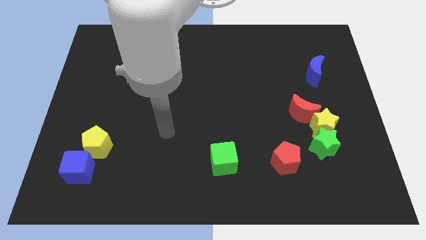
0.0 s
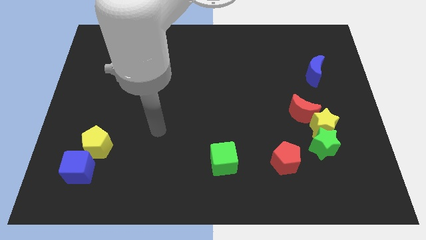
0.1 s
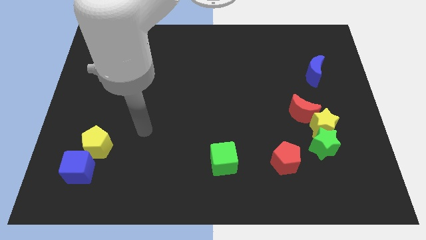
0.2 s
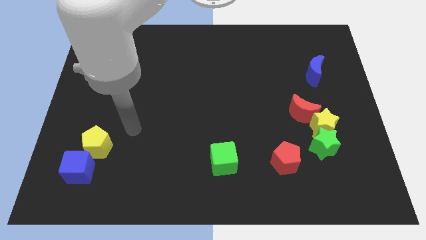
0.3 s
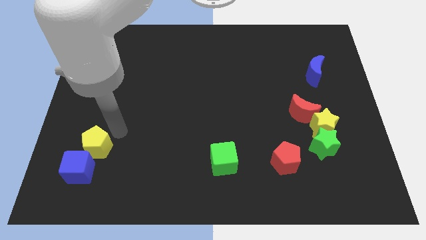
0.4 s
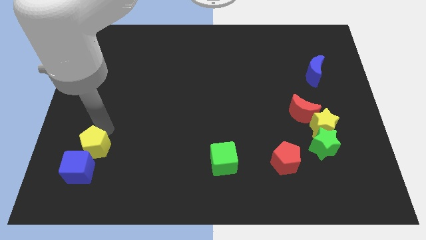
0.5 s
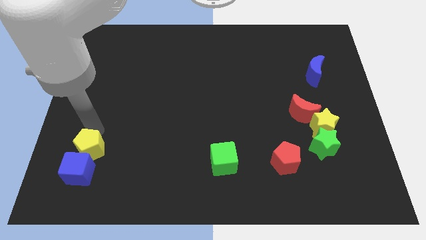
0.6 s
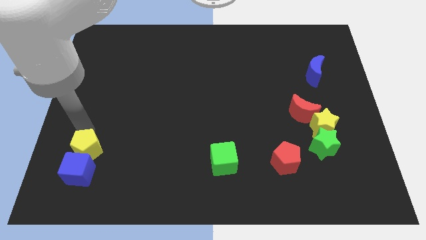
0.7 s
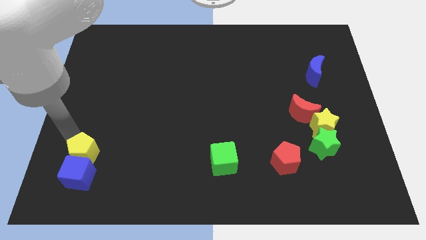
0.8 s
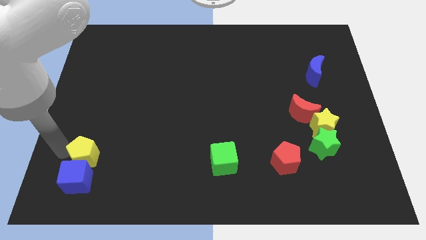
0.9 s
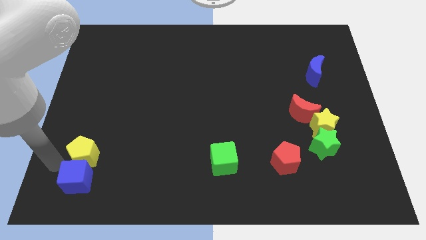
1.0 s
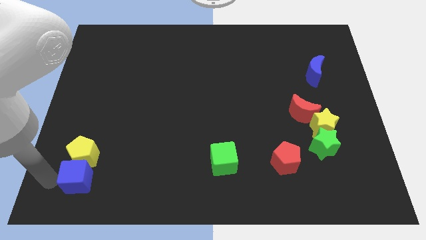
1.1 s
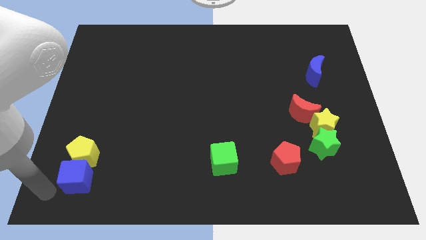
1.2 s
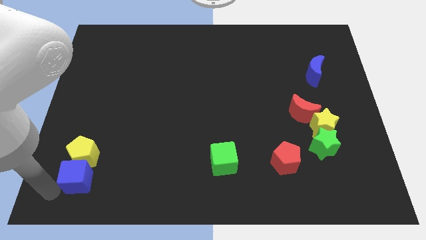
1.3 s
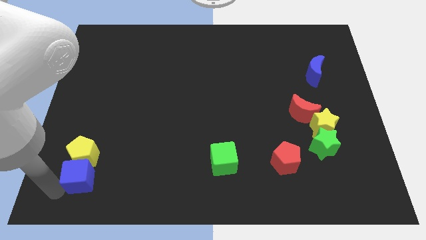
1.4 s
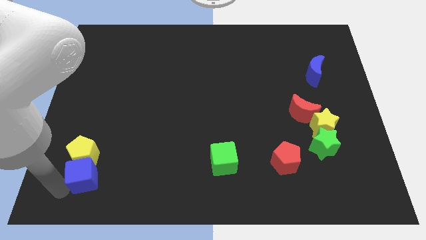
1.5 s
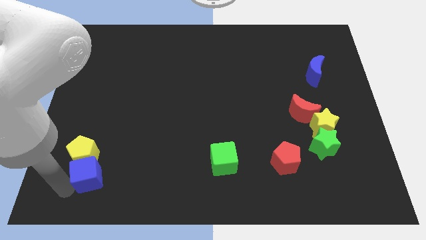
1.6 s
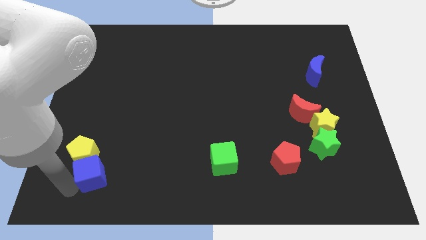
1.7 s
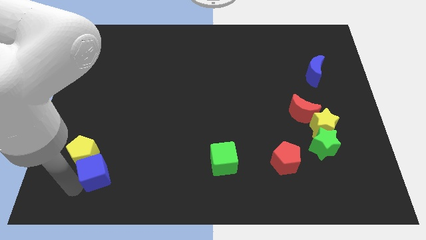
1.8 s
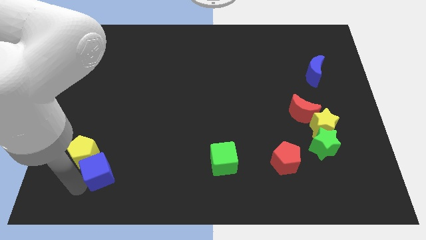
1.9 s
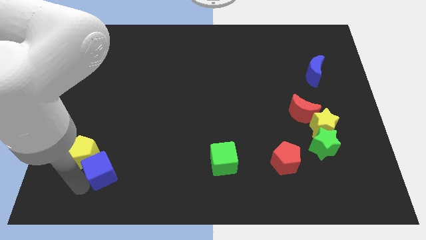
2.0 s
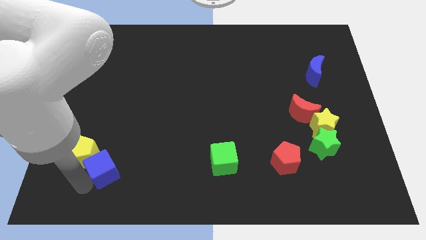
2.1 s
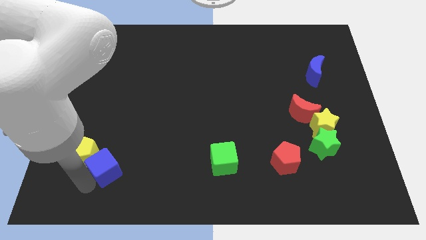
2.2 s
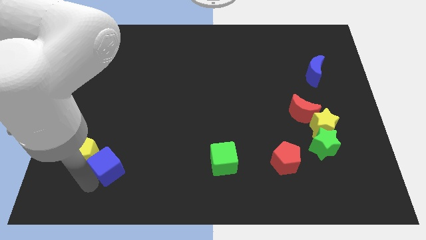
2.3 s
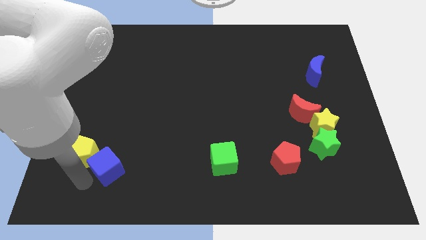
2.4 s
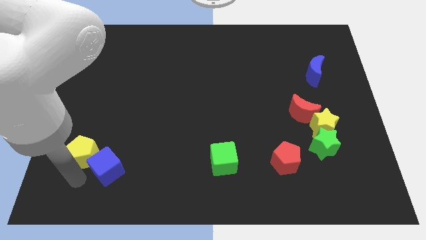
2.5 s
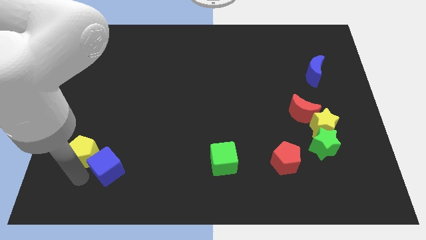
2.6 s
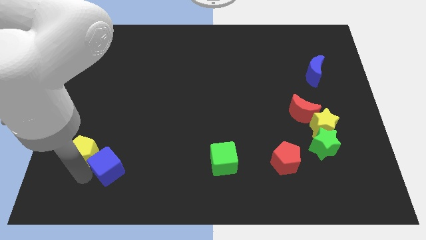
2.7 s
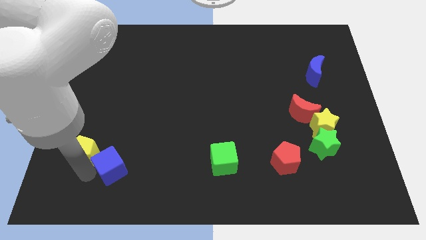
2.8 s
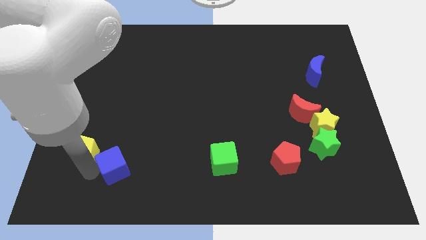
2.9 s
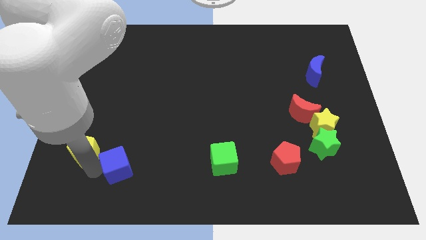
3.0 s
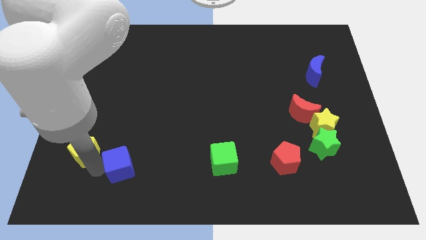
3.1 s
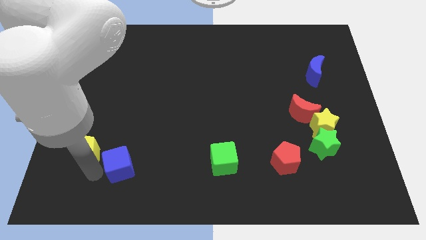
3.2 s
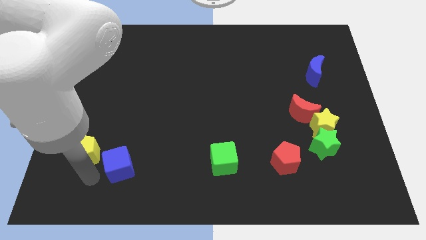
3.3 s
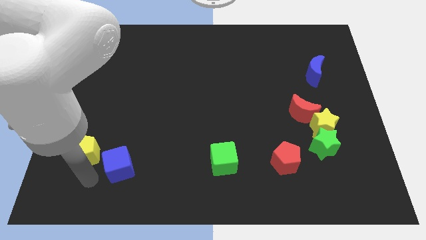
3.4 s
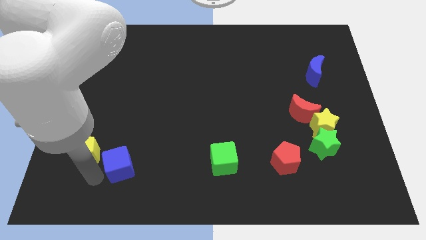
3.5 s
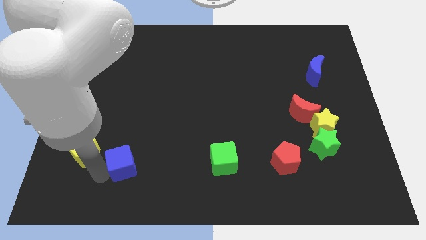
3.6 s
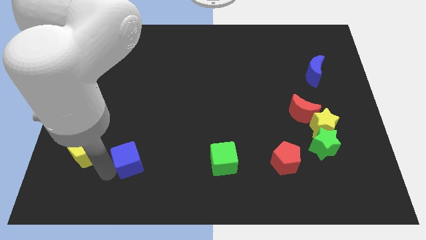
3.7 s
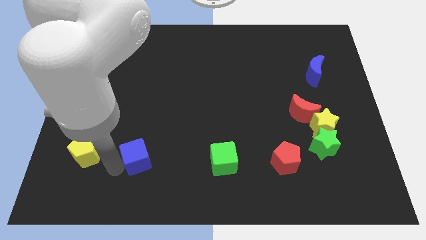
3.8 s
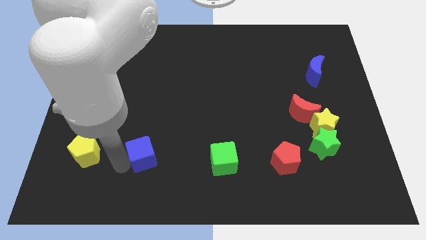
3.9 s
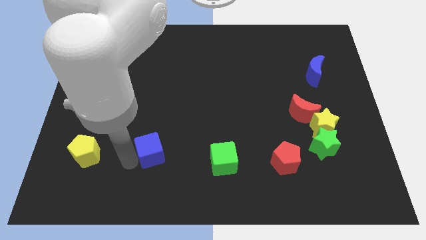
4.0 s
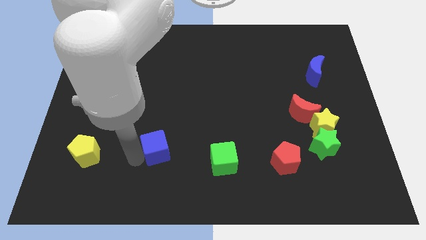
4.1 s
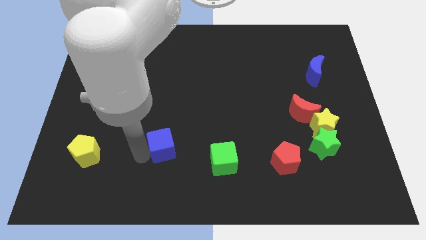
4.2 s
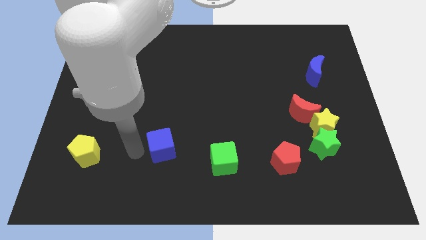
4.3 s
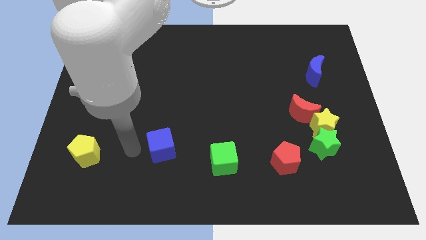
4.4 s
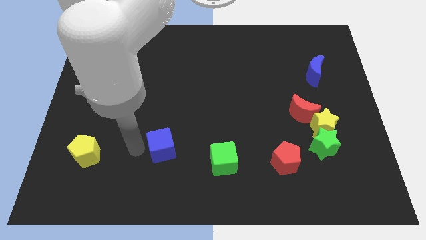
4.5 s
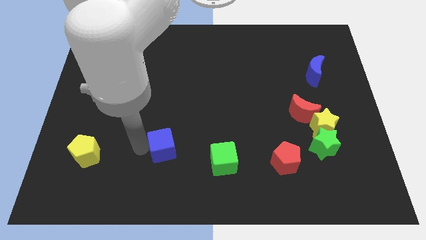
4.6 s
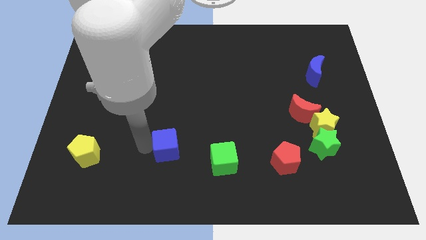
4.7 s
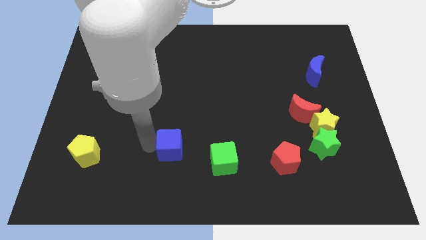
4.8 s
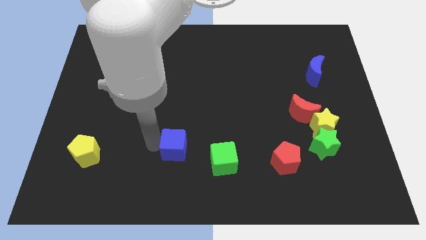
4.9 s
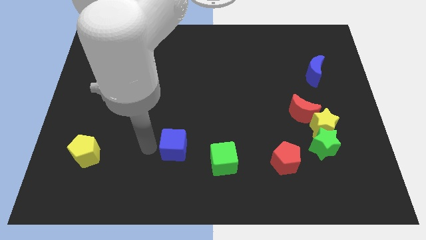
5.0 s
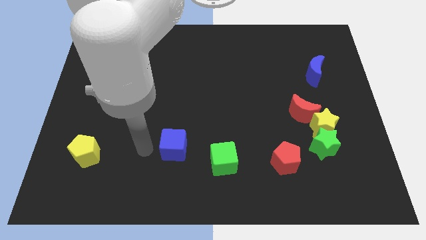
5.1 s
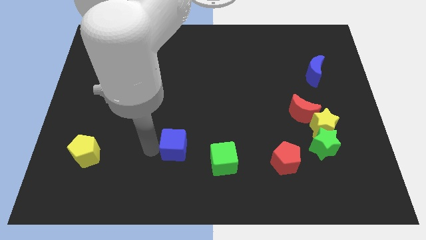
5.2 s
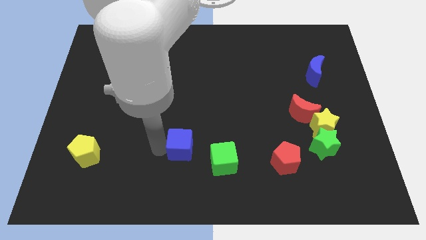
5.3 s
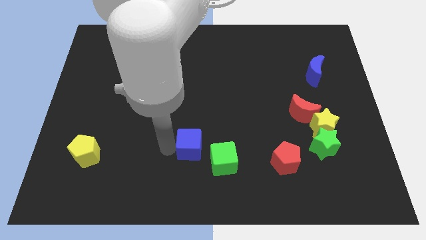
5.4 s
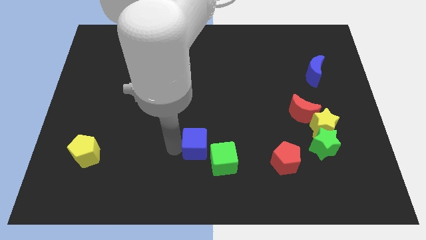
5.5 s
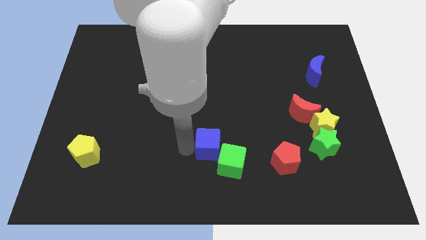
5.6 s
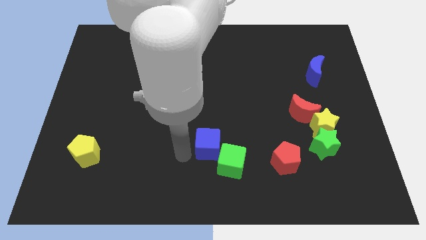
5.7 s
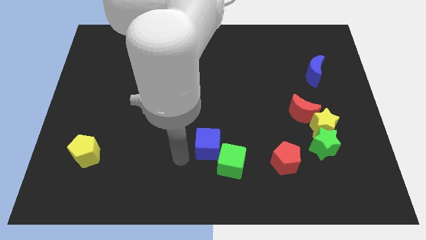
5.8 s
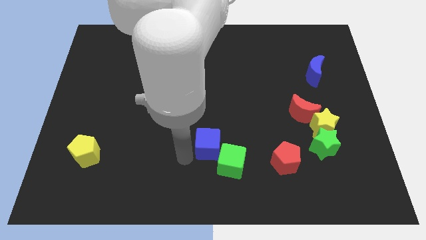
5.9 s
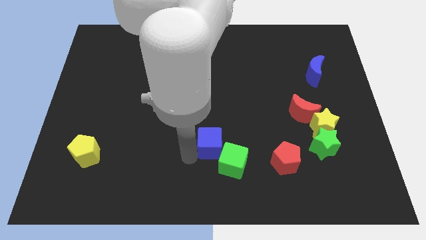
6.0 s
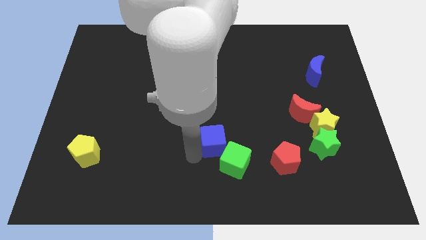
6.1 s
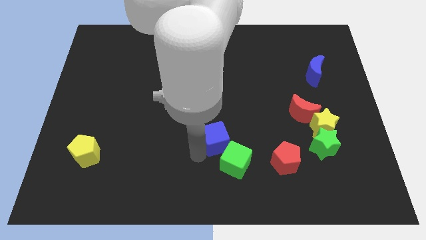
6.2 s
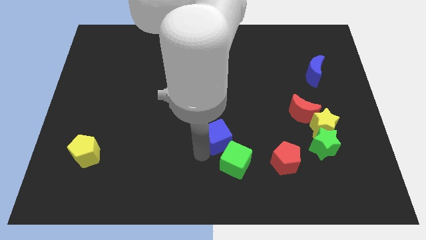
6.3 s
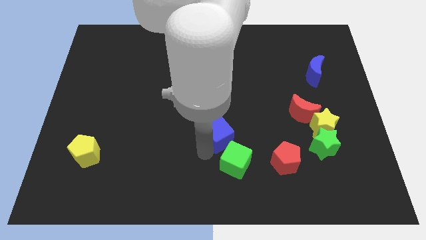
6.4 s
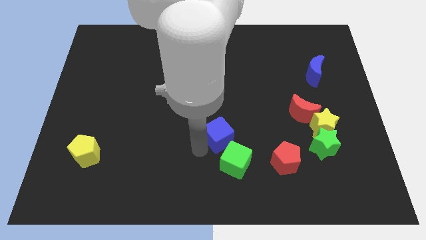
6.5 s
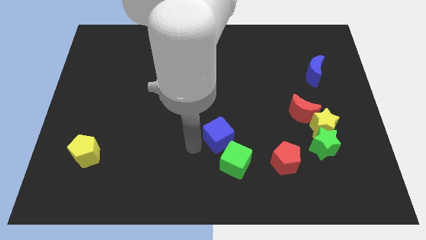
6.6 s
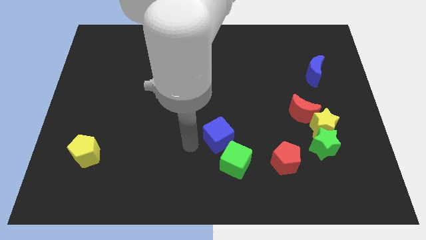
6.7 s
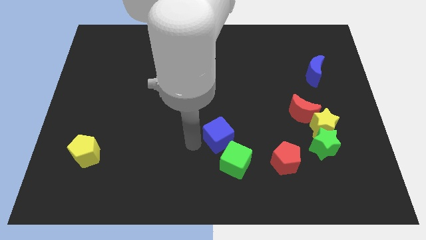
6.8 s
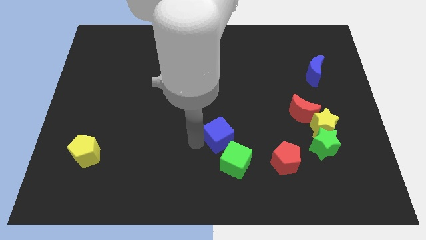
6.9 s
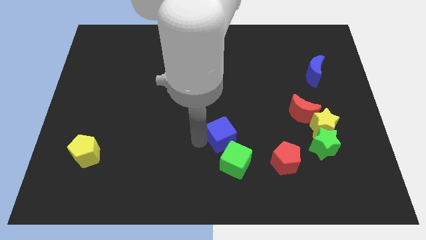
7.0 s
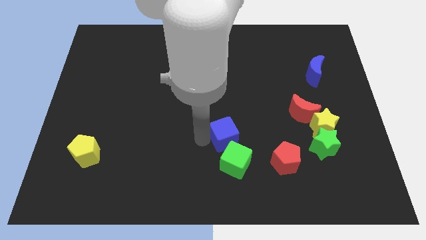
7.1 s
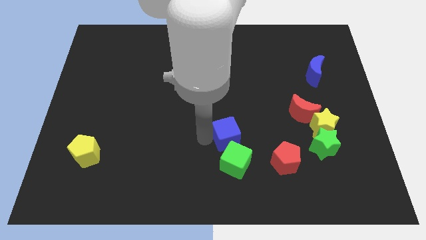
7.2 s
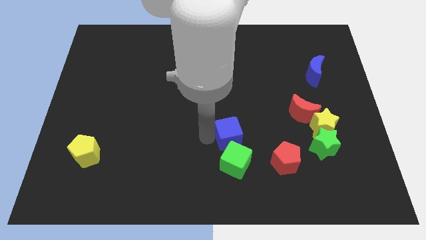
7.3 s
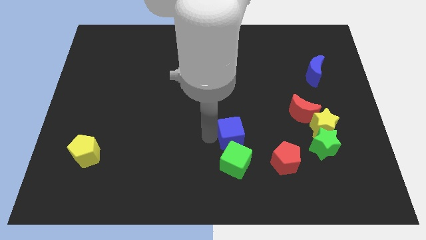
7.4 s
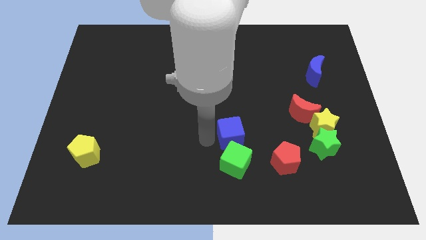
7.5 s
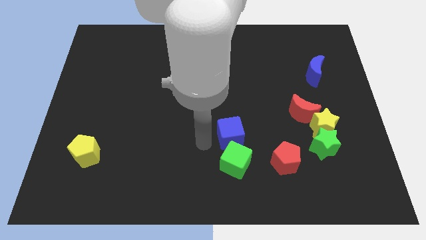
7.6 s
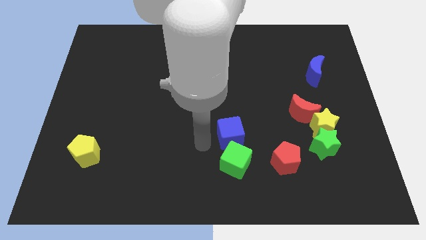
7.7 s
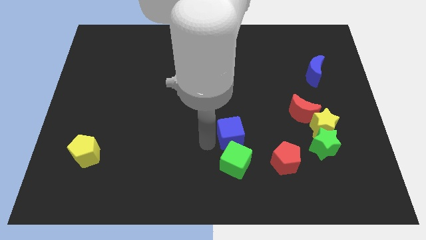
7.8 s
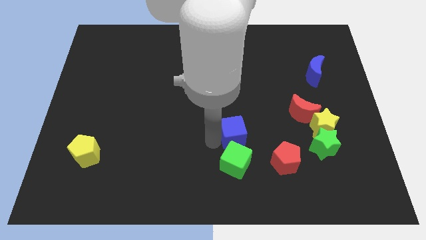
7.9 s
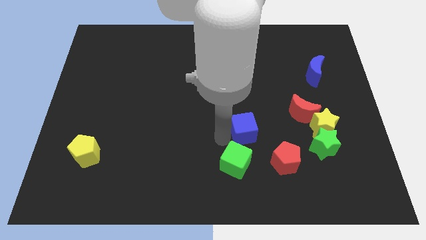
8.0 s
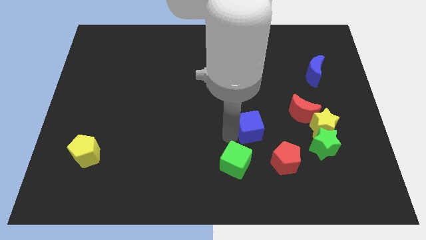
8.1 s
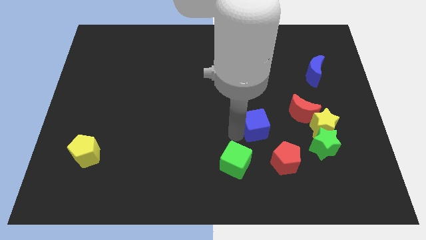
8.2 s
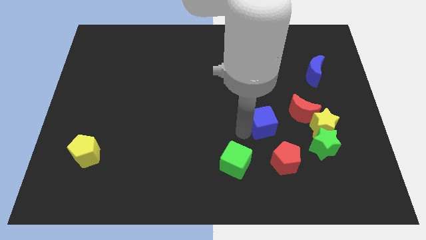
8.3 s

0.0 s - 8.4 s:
put the blue cube to the top side of the red pentagon
